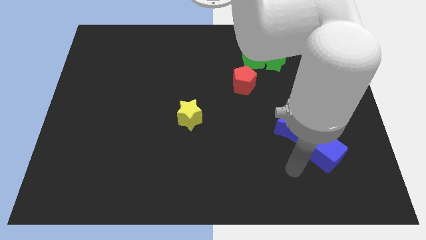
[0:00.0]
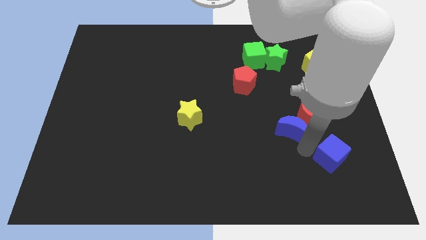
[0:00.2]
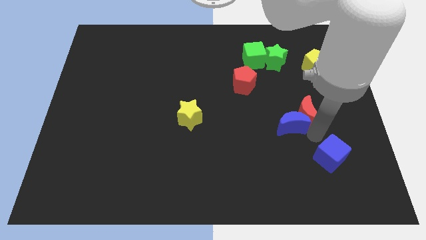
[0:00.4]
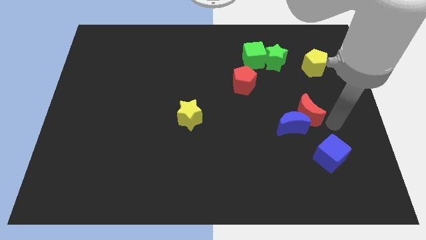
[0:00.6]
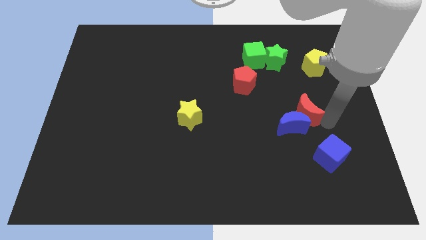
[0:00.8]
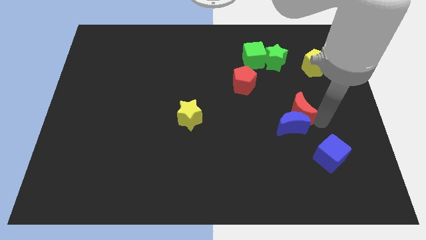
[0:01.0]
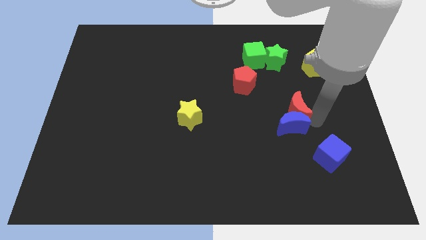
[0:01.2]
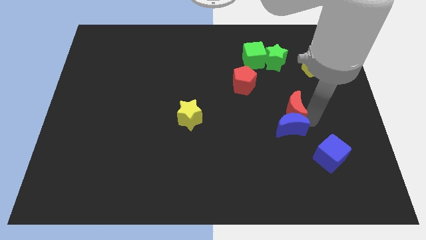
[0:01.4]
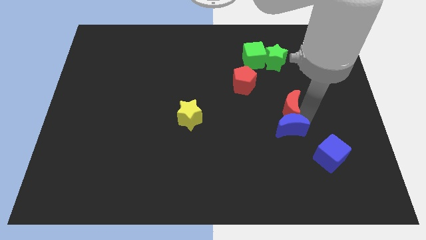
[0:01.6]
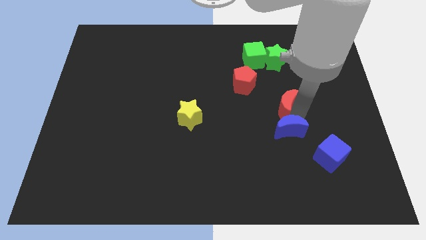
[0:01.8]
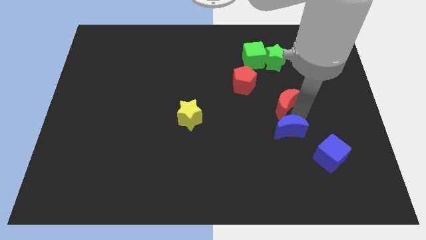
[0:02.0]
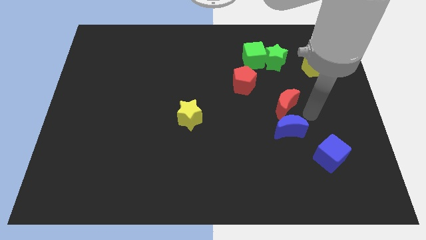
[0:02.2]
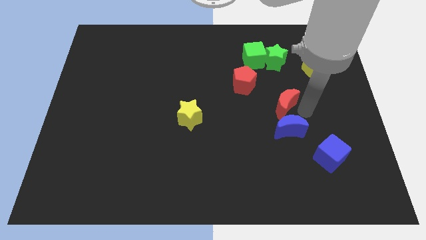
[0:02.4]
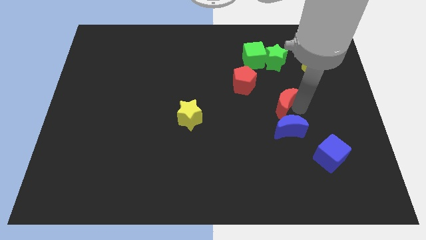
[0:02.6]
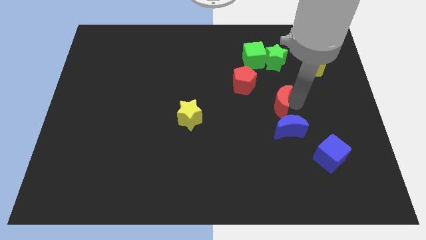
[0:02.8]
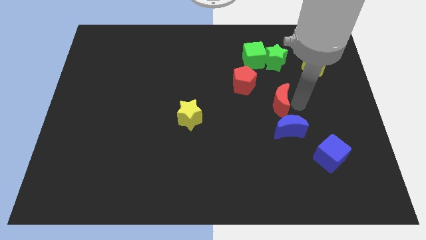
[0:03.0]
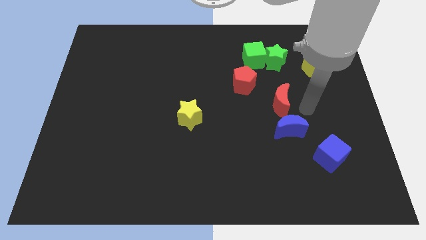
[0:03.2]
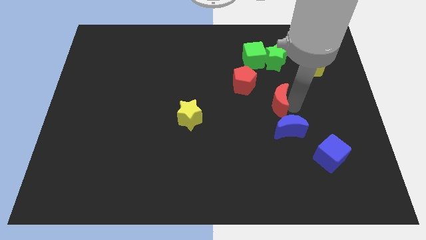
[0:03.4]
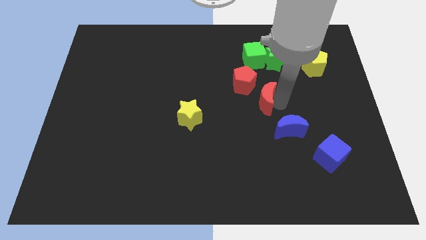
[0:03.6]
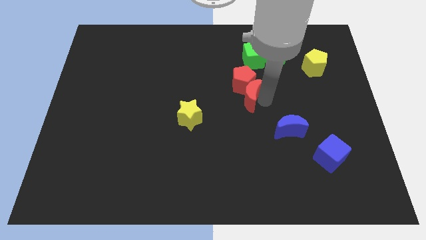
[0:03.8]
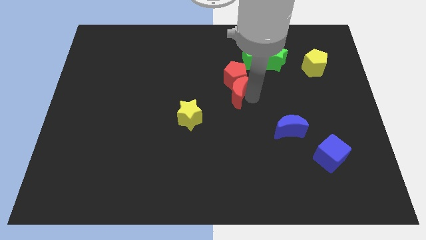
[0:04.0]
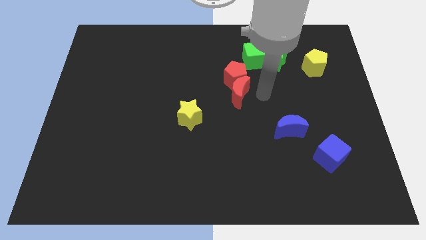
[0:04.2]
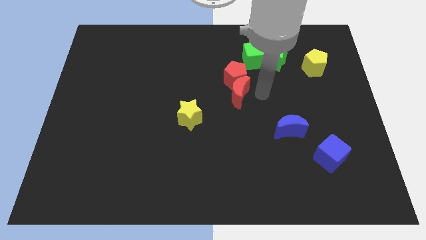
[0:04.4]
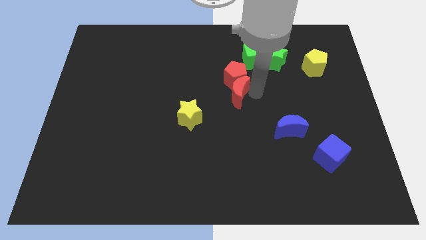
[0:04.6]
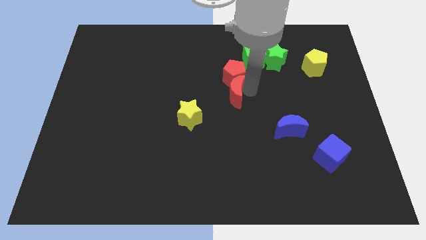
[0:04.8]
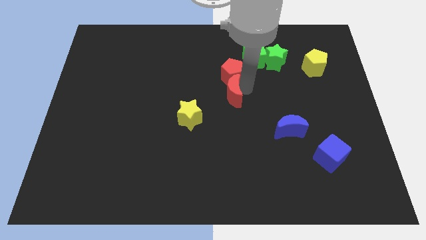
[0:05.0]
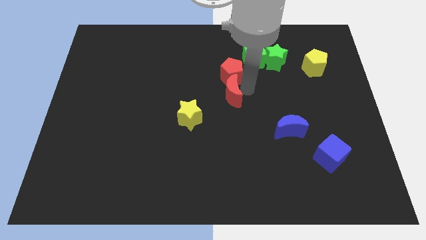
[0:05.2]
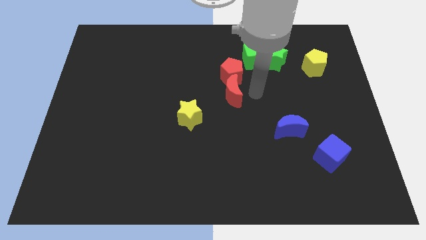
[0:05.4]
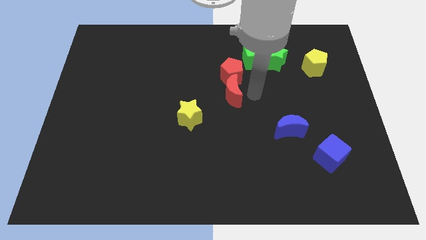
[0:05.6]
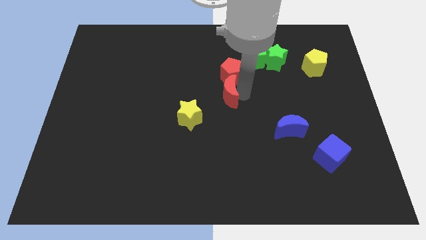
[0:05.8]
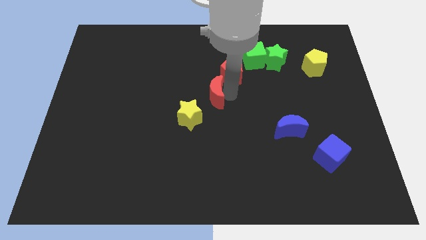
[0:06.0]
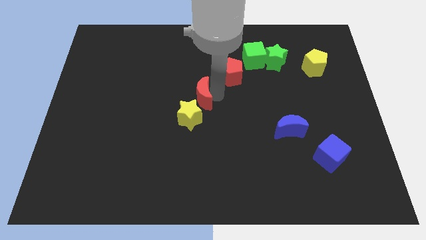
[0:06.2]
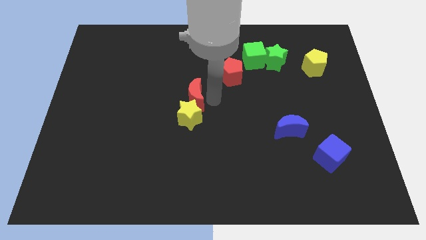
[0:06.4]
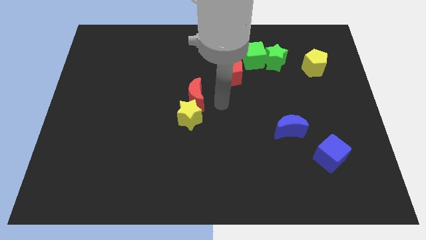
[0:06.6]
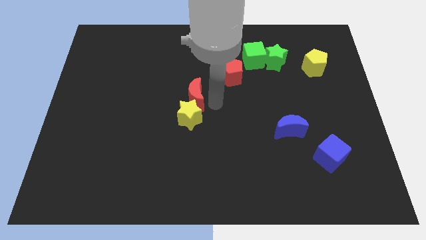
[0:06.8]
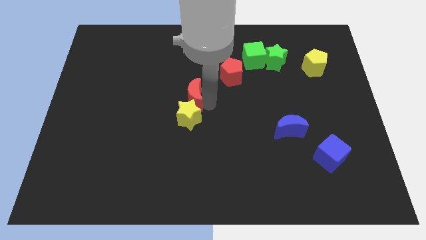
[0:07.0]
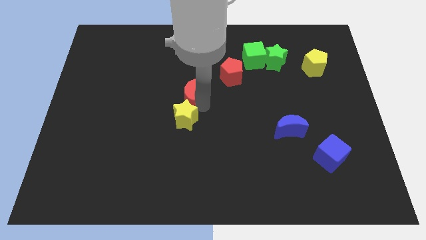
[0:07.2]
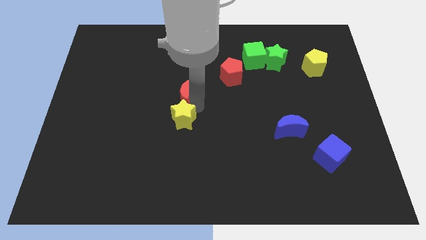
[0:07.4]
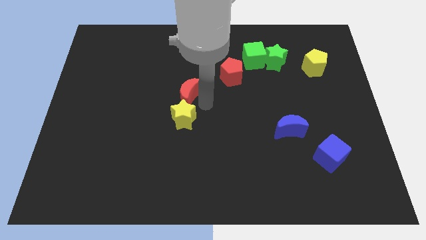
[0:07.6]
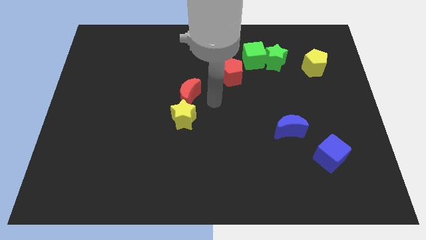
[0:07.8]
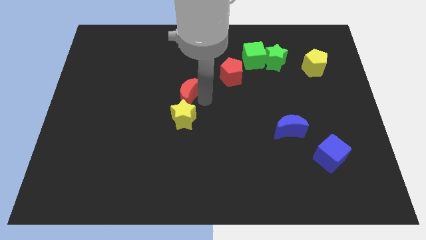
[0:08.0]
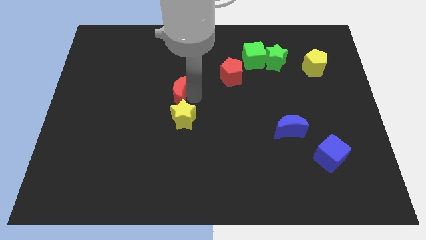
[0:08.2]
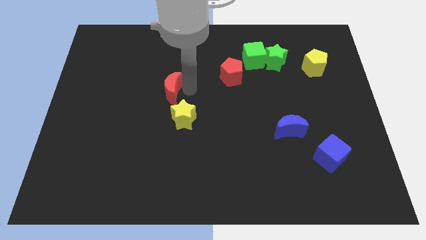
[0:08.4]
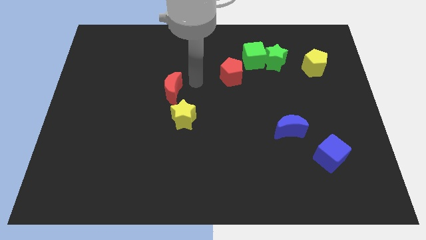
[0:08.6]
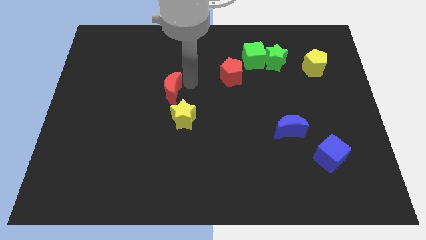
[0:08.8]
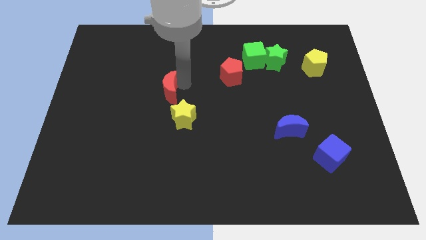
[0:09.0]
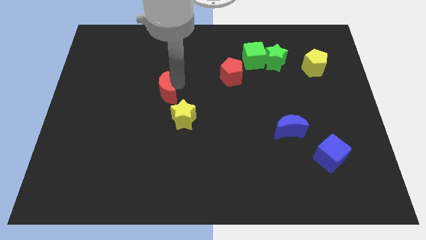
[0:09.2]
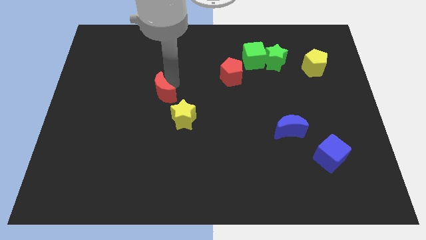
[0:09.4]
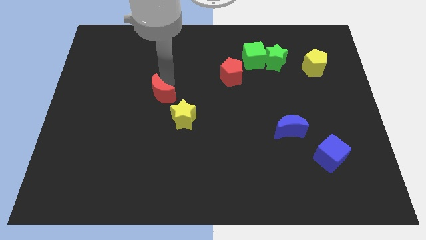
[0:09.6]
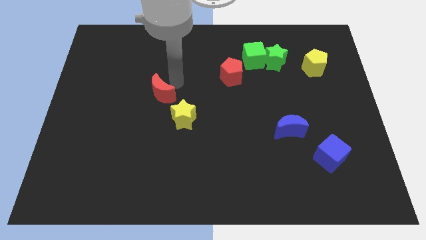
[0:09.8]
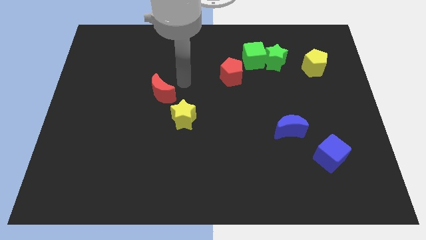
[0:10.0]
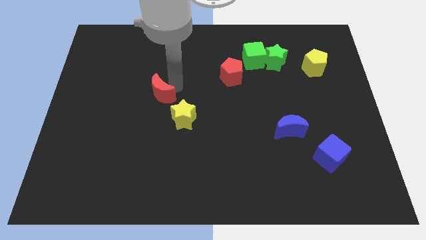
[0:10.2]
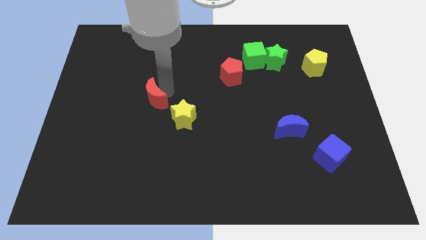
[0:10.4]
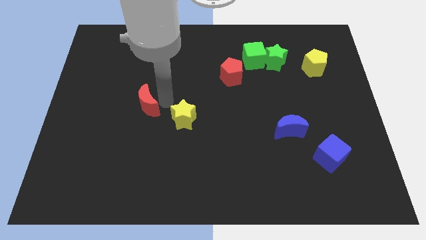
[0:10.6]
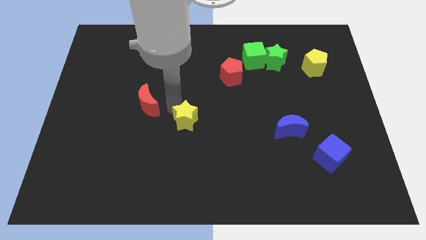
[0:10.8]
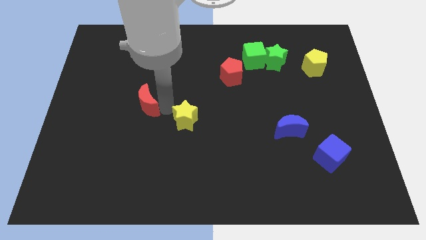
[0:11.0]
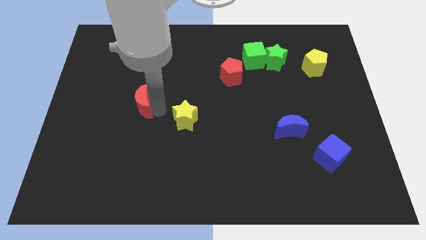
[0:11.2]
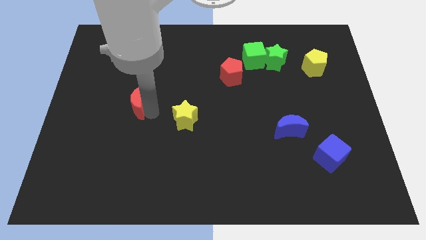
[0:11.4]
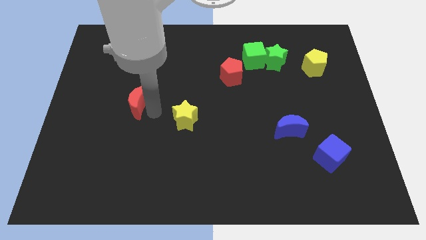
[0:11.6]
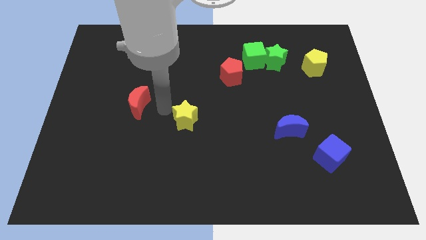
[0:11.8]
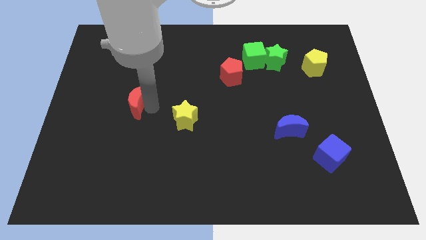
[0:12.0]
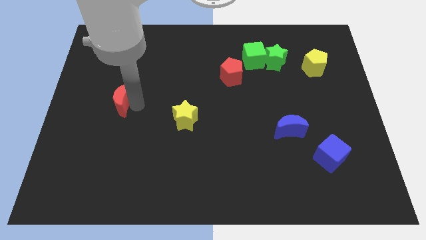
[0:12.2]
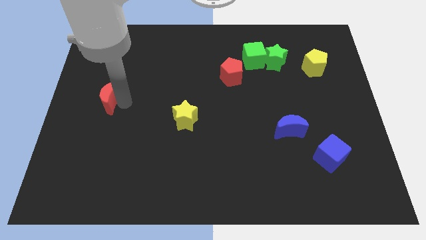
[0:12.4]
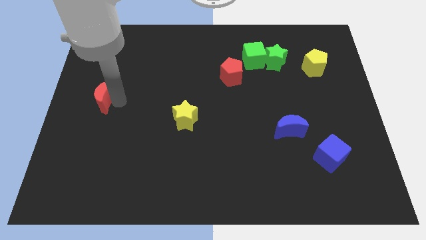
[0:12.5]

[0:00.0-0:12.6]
slide the red moon to the center left
